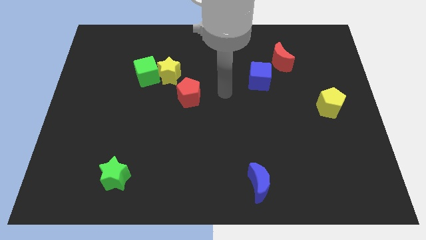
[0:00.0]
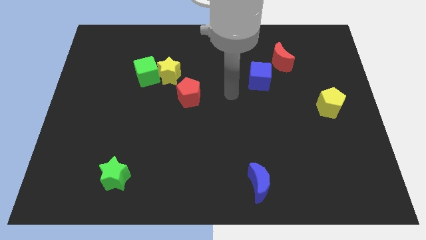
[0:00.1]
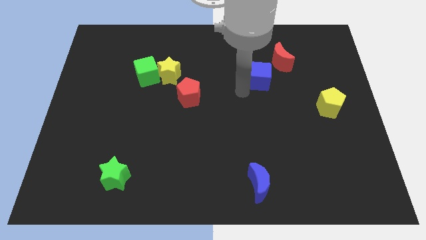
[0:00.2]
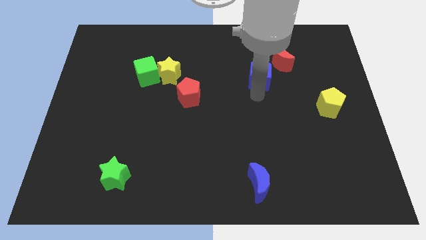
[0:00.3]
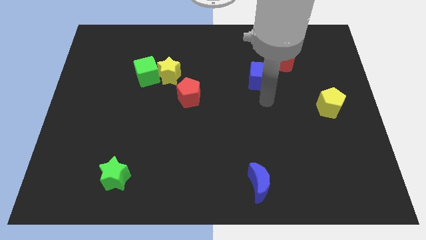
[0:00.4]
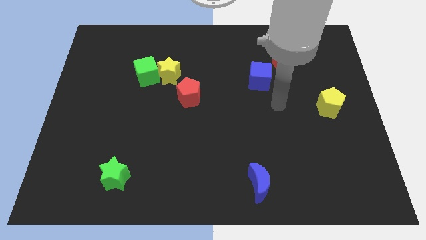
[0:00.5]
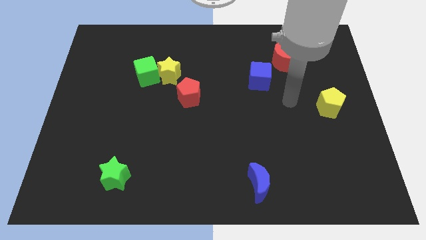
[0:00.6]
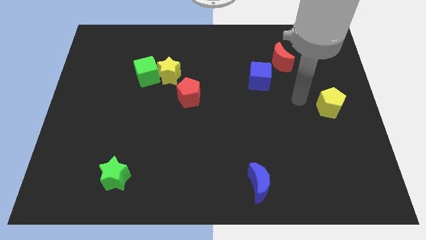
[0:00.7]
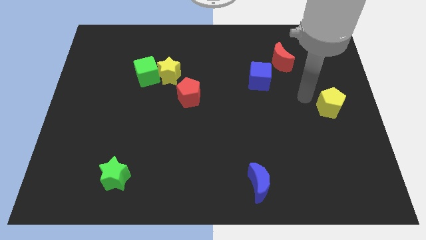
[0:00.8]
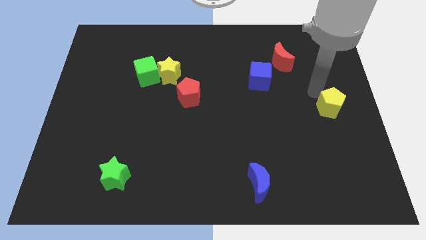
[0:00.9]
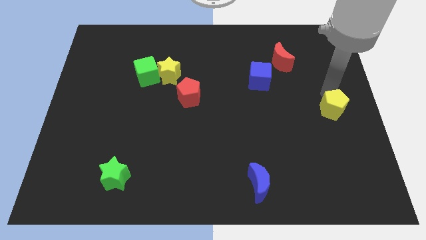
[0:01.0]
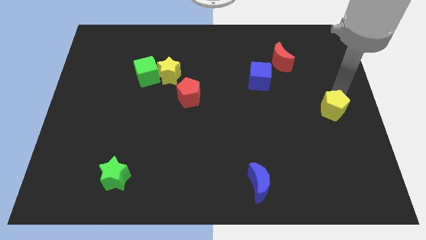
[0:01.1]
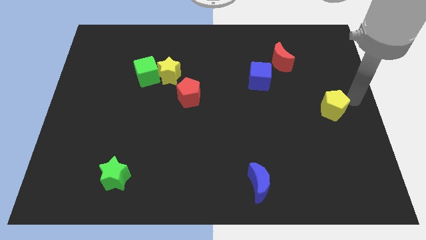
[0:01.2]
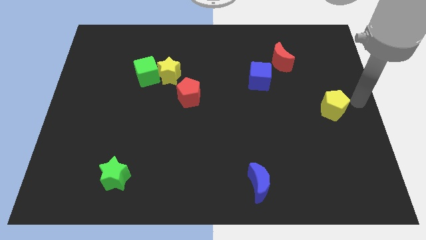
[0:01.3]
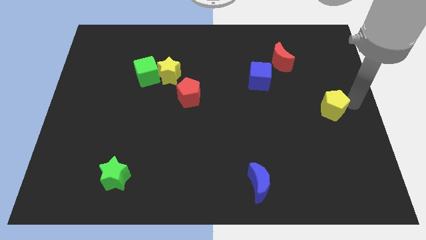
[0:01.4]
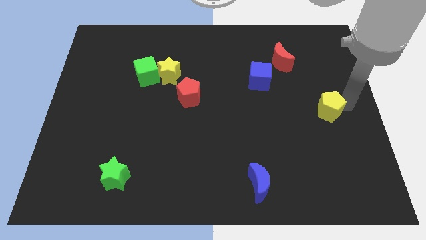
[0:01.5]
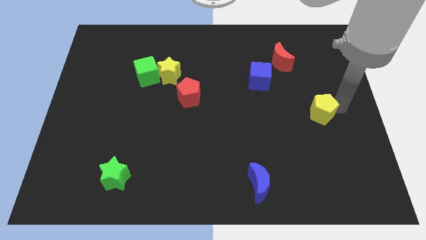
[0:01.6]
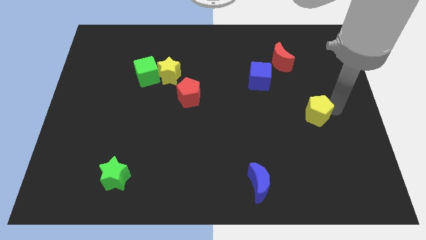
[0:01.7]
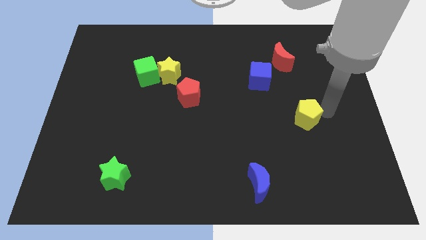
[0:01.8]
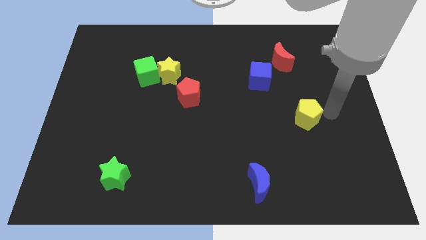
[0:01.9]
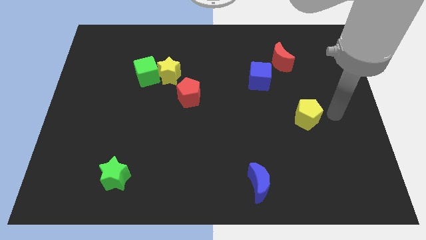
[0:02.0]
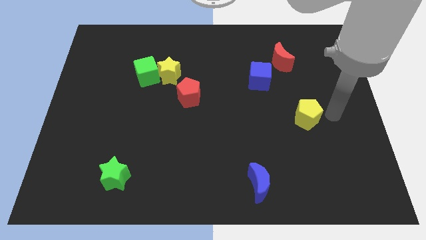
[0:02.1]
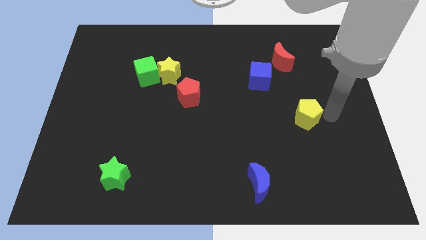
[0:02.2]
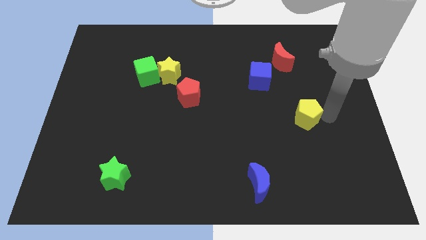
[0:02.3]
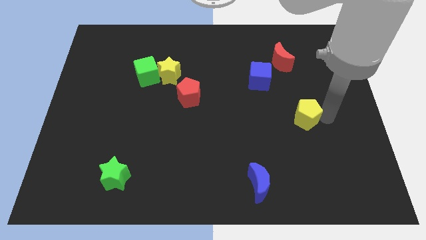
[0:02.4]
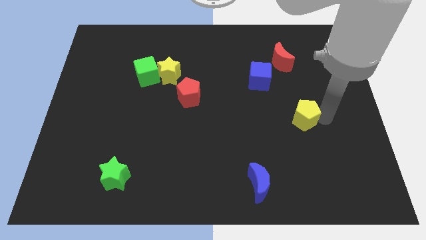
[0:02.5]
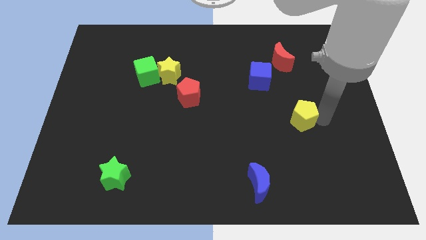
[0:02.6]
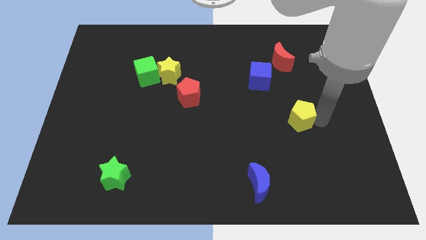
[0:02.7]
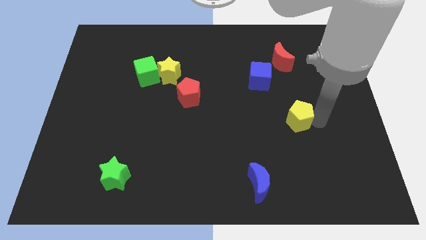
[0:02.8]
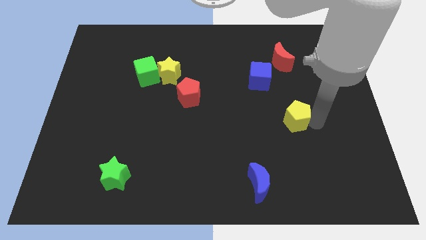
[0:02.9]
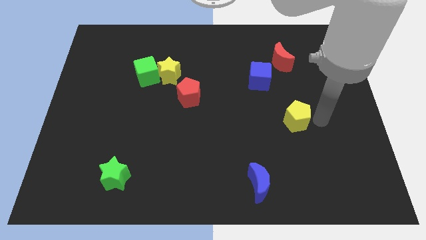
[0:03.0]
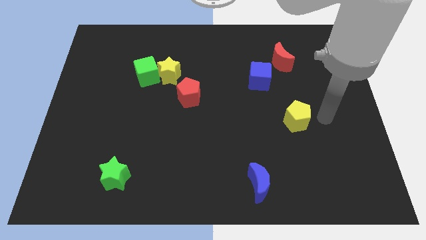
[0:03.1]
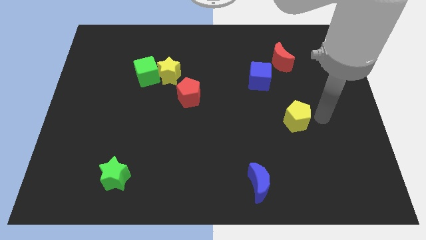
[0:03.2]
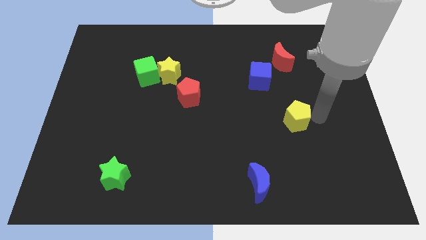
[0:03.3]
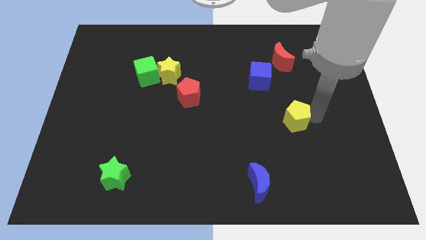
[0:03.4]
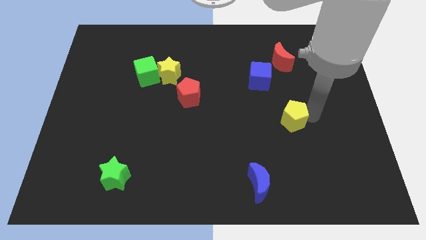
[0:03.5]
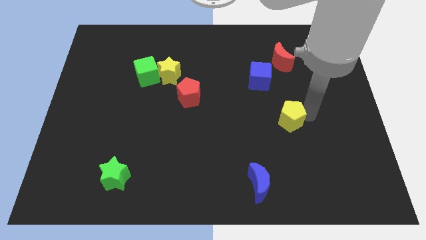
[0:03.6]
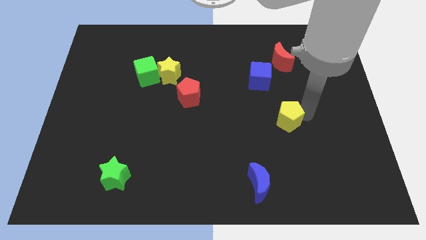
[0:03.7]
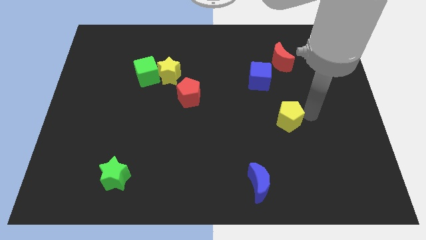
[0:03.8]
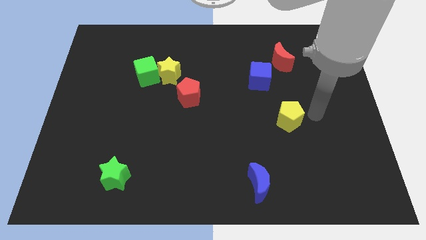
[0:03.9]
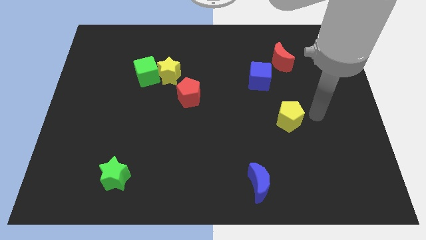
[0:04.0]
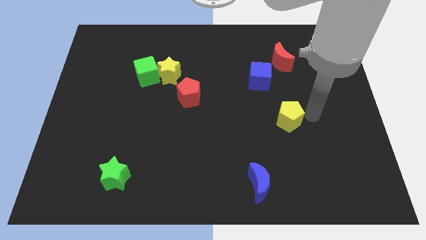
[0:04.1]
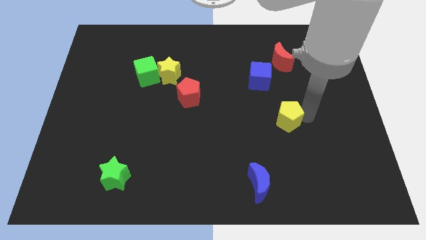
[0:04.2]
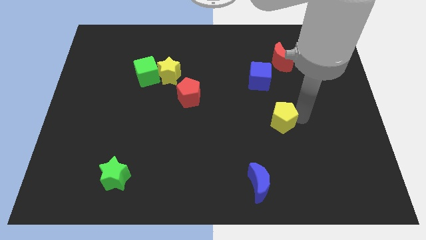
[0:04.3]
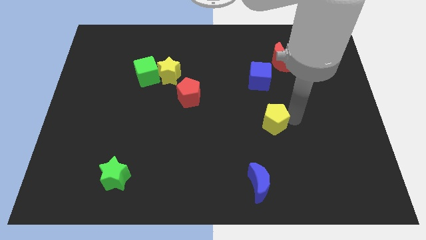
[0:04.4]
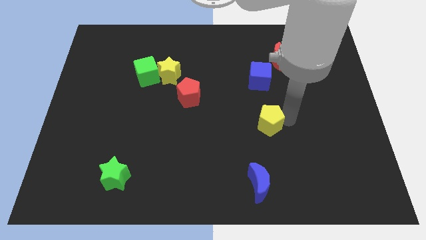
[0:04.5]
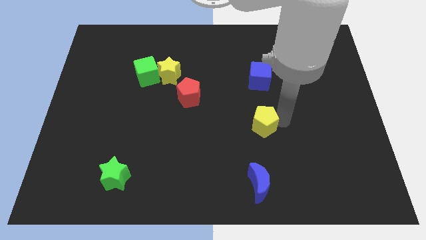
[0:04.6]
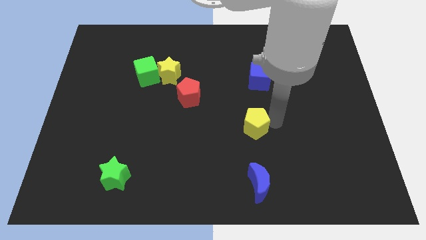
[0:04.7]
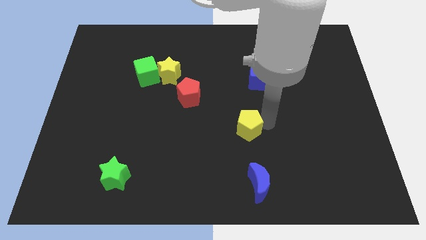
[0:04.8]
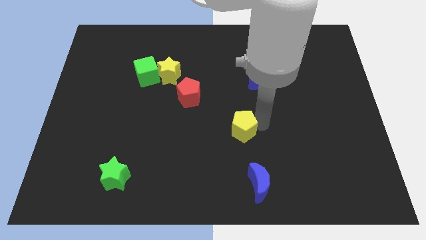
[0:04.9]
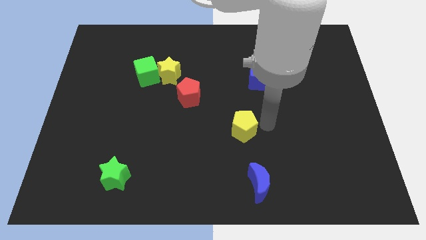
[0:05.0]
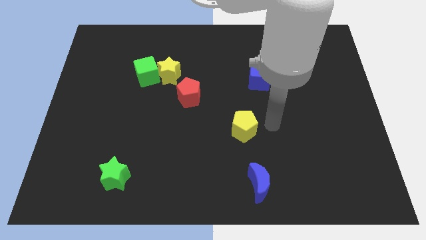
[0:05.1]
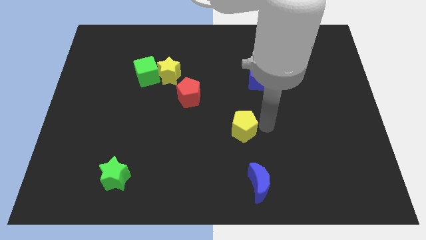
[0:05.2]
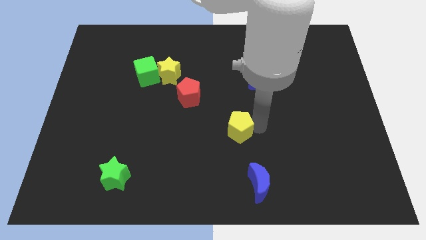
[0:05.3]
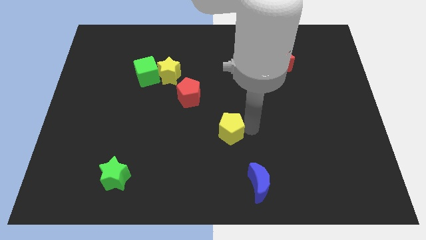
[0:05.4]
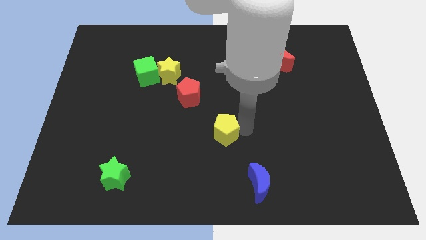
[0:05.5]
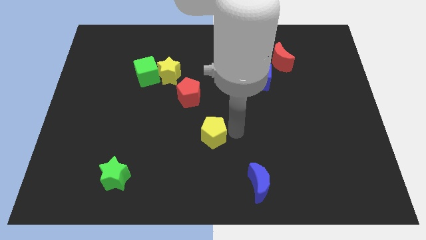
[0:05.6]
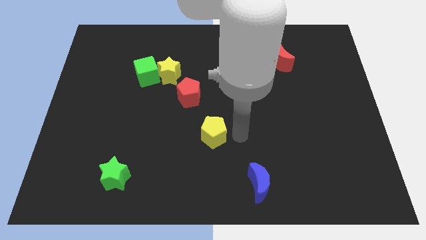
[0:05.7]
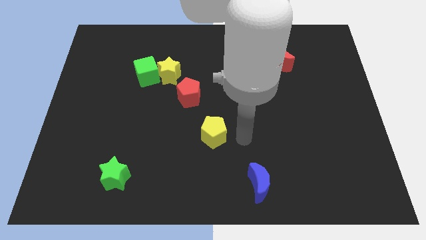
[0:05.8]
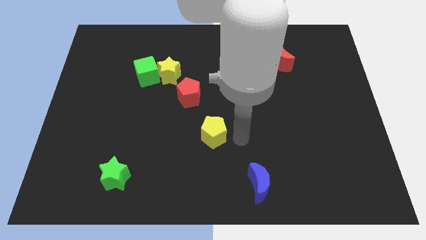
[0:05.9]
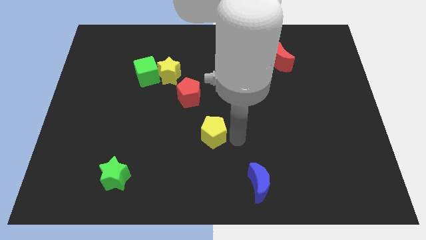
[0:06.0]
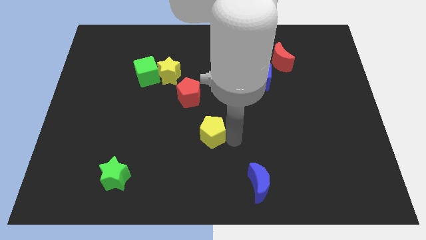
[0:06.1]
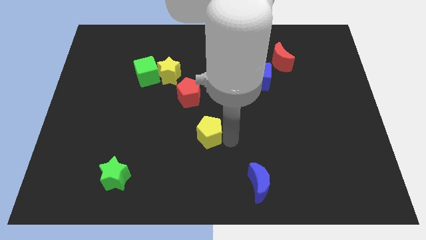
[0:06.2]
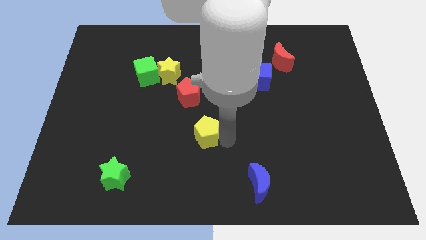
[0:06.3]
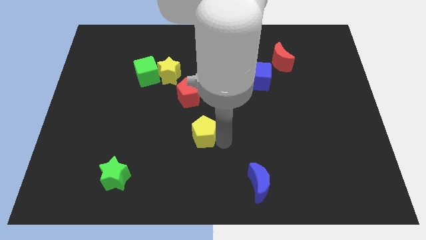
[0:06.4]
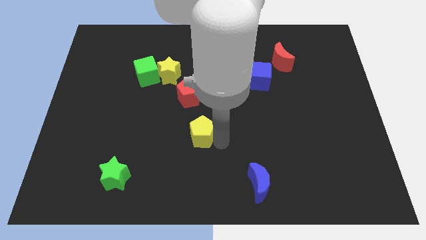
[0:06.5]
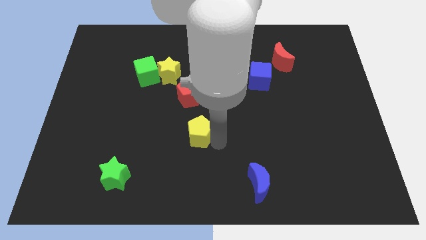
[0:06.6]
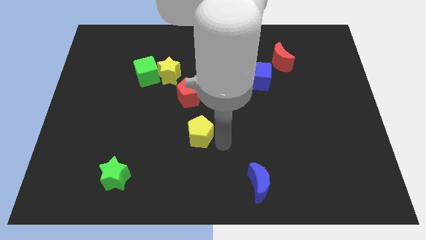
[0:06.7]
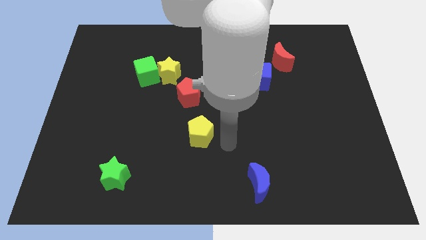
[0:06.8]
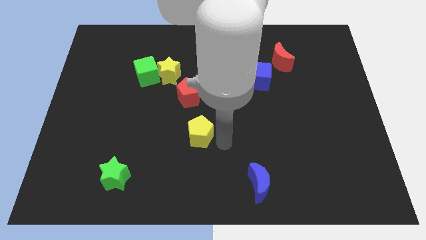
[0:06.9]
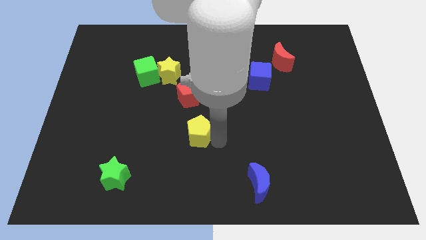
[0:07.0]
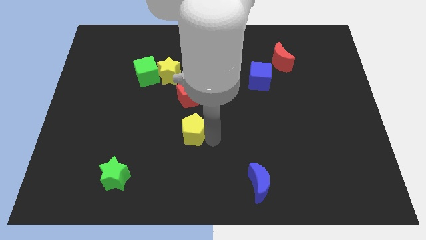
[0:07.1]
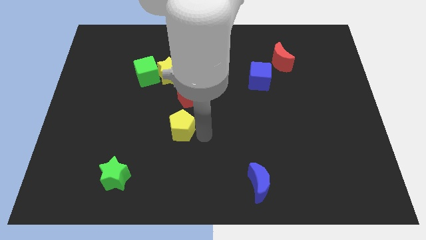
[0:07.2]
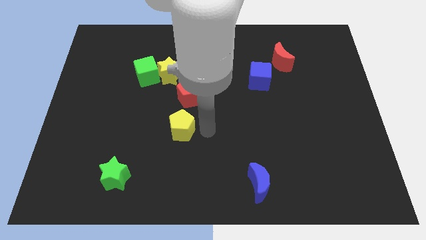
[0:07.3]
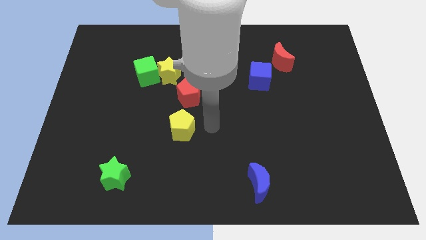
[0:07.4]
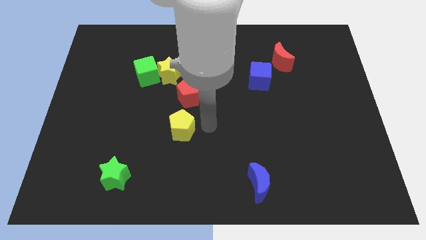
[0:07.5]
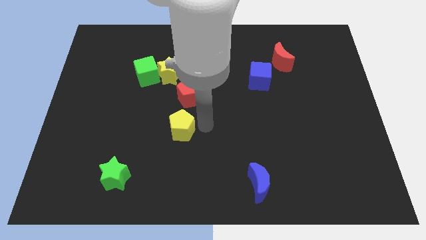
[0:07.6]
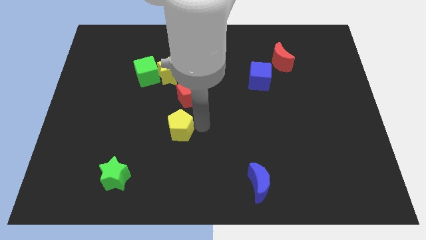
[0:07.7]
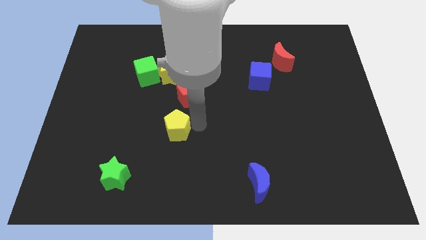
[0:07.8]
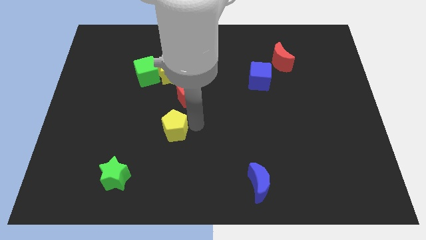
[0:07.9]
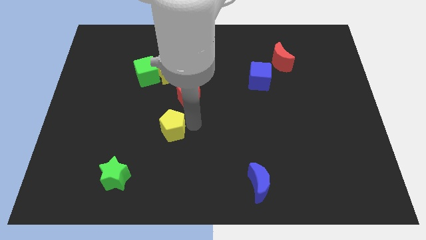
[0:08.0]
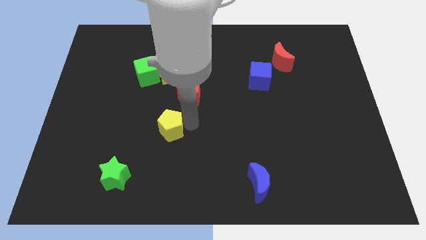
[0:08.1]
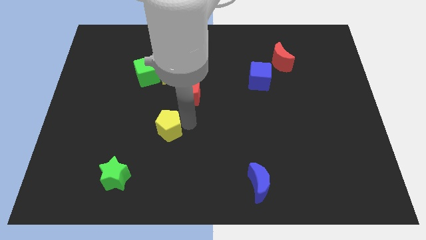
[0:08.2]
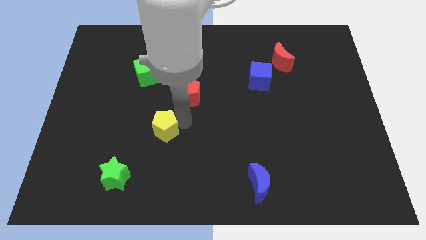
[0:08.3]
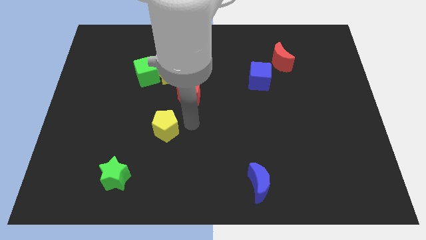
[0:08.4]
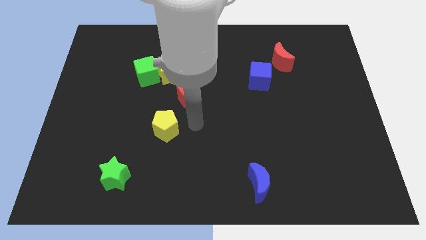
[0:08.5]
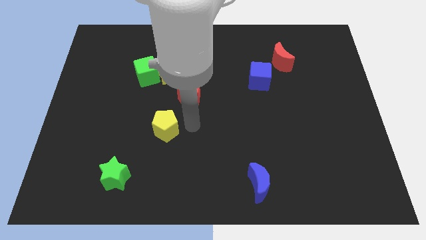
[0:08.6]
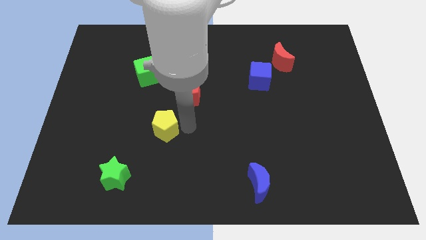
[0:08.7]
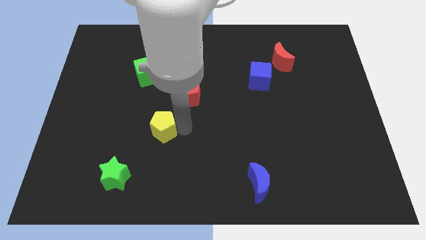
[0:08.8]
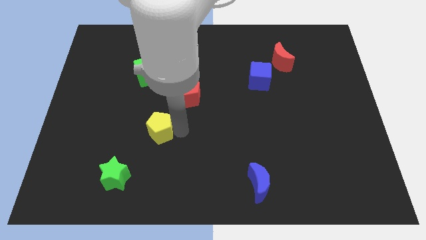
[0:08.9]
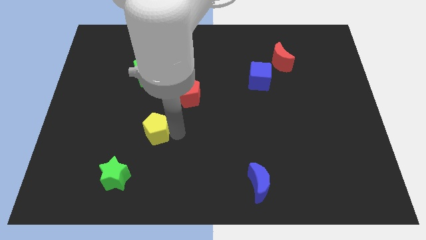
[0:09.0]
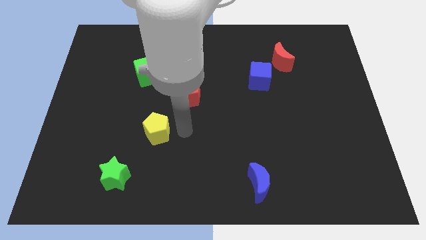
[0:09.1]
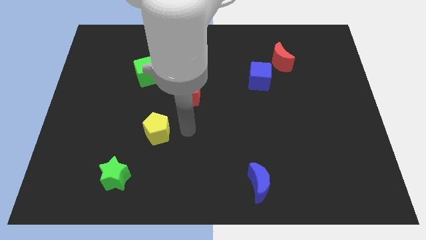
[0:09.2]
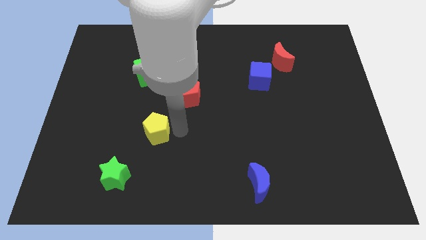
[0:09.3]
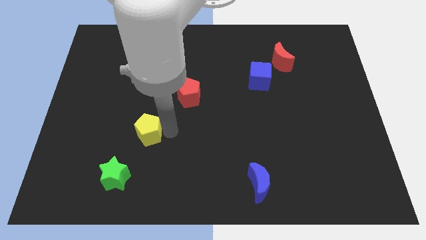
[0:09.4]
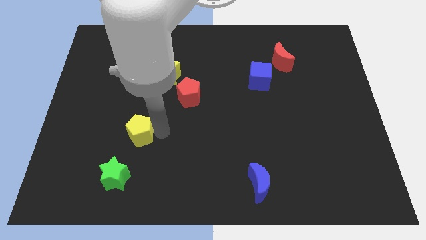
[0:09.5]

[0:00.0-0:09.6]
slide the yellow pentagon above the green star
